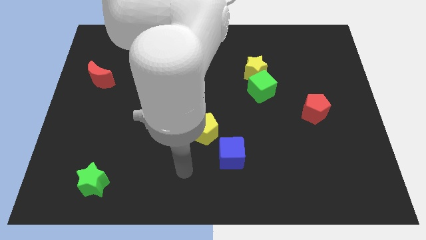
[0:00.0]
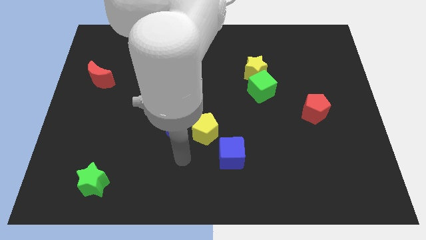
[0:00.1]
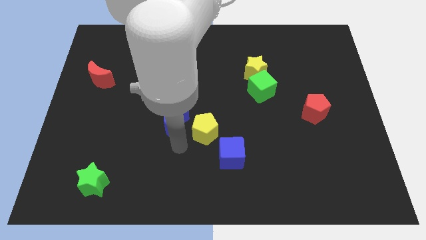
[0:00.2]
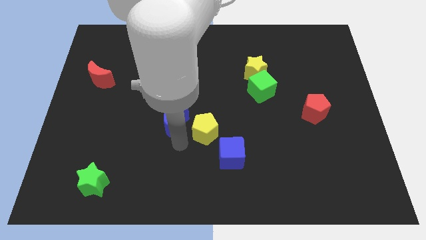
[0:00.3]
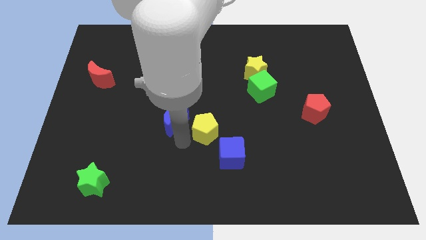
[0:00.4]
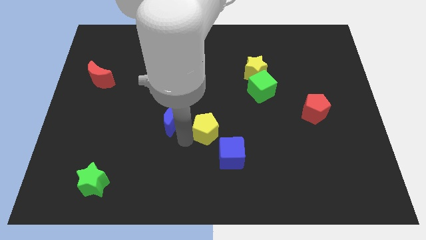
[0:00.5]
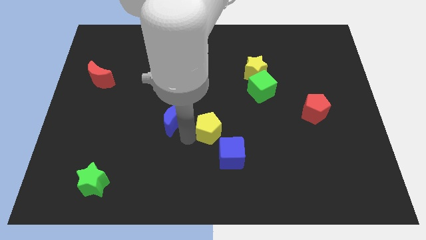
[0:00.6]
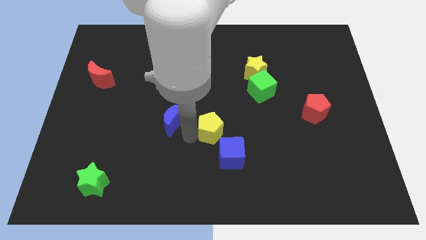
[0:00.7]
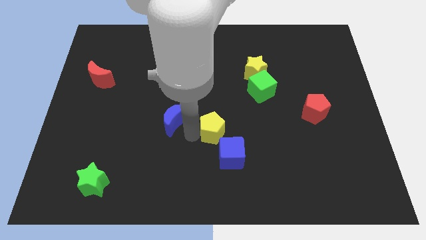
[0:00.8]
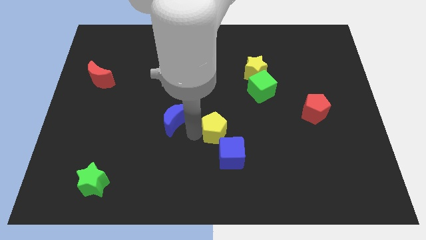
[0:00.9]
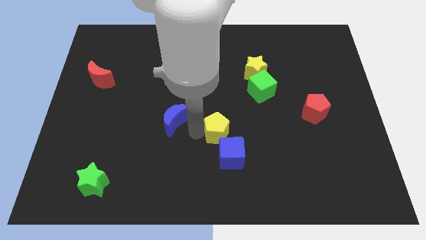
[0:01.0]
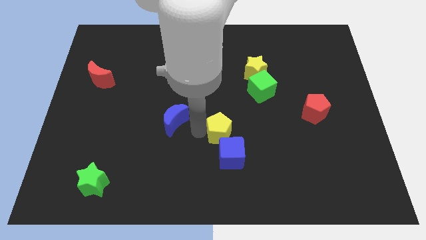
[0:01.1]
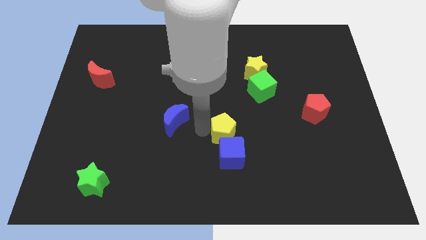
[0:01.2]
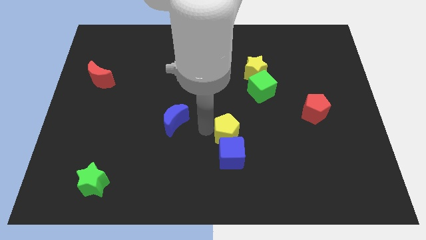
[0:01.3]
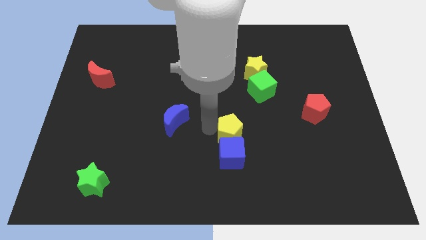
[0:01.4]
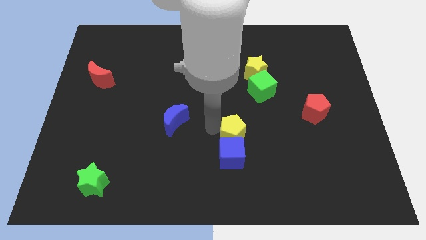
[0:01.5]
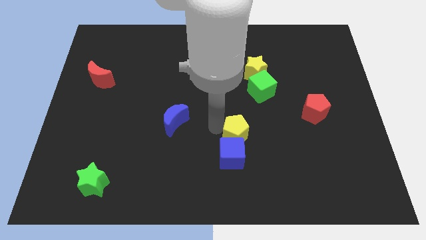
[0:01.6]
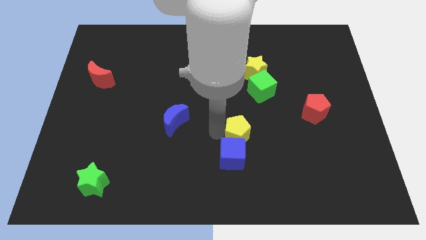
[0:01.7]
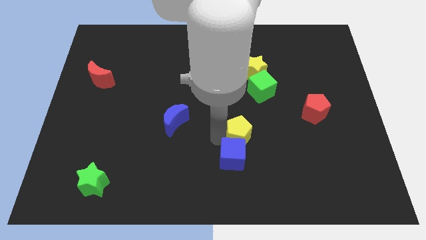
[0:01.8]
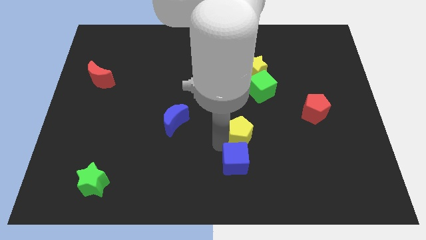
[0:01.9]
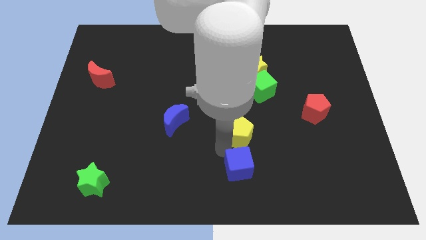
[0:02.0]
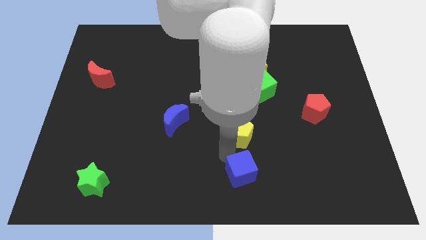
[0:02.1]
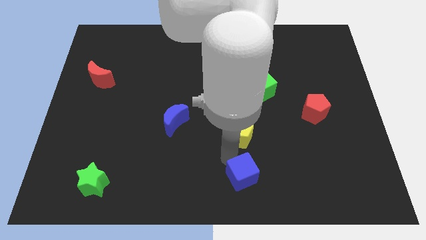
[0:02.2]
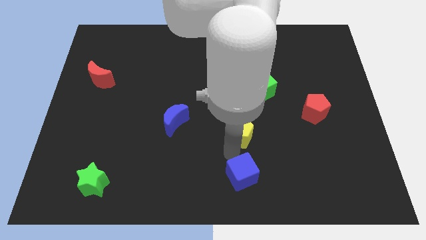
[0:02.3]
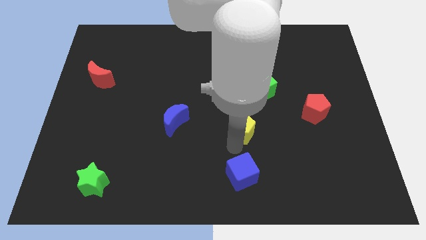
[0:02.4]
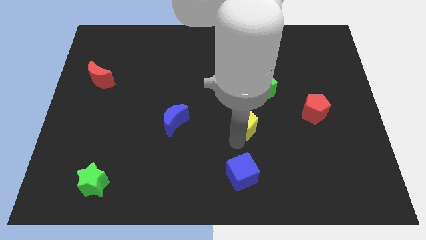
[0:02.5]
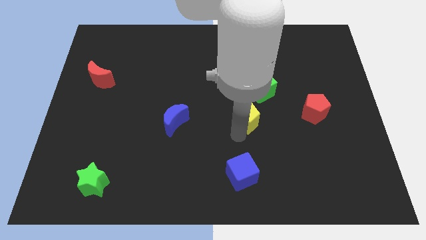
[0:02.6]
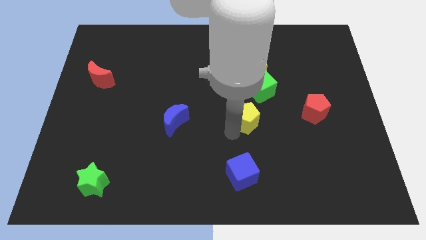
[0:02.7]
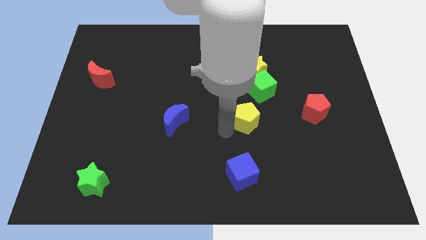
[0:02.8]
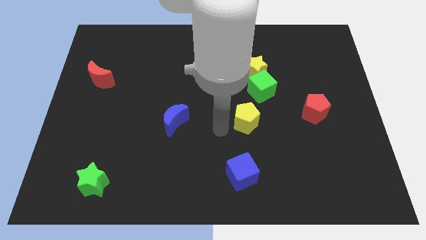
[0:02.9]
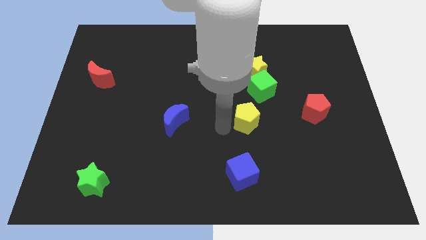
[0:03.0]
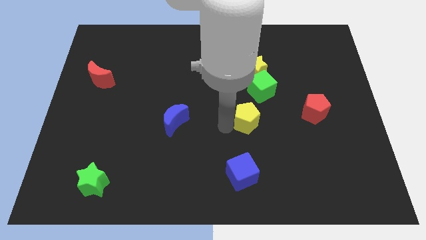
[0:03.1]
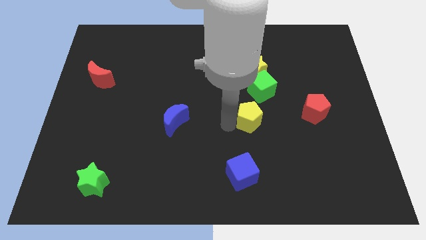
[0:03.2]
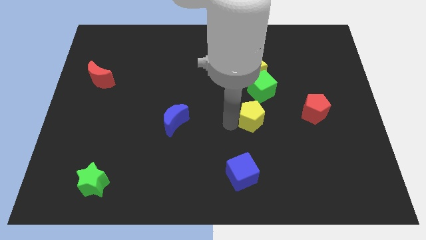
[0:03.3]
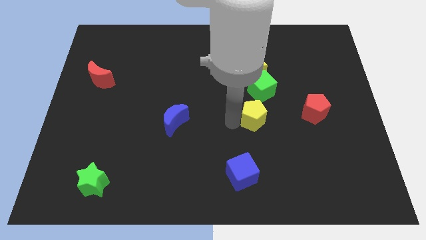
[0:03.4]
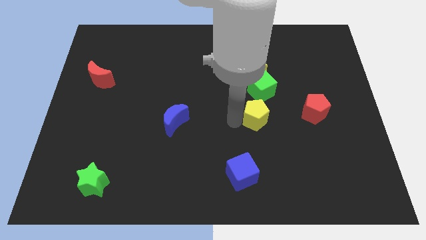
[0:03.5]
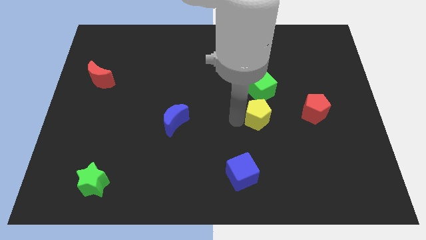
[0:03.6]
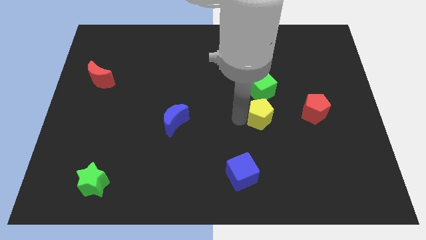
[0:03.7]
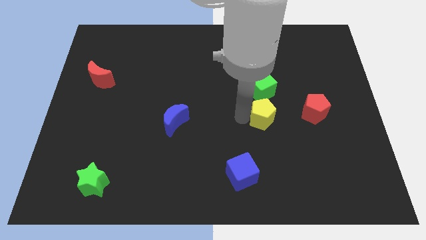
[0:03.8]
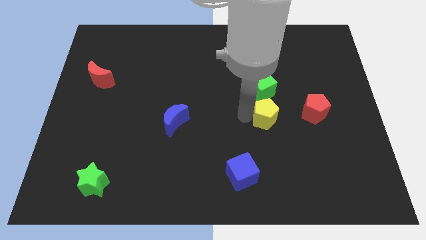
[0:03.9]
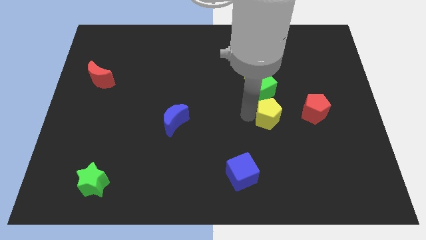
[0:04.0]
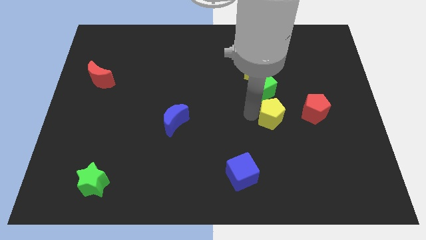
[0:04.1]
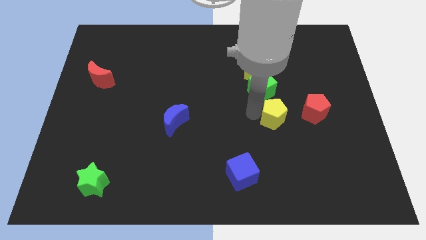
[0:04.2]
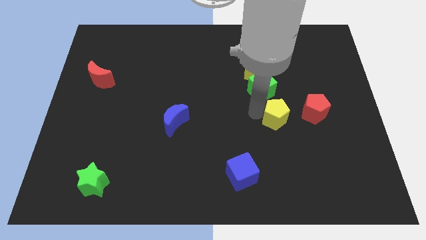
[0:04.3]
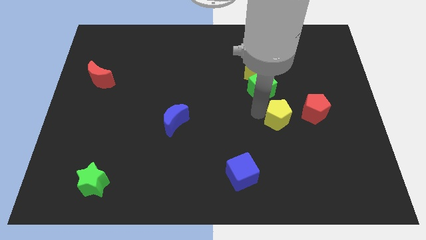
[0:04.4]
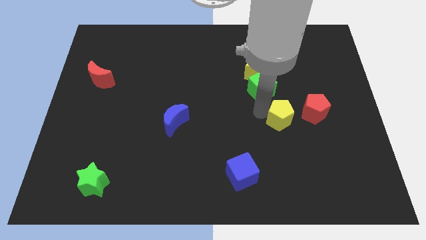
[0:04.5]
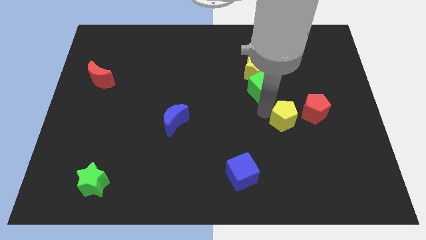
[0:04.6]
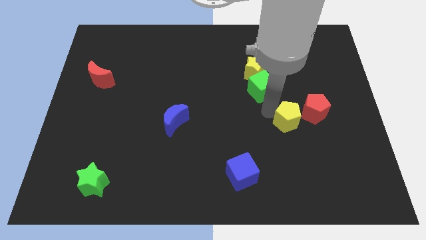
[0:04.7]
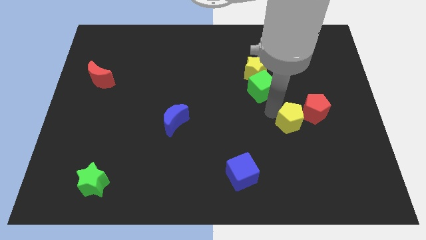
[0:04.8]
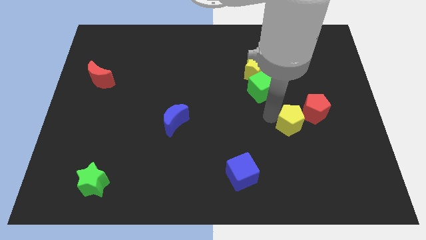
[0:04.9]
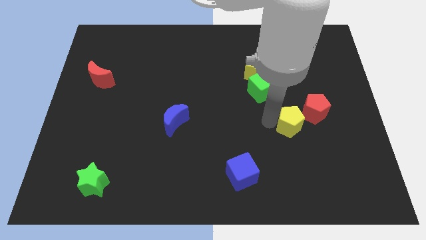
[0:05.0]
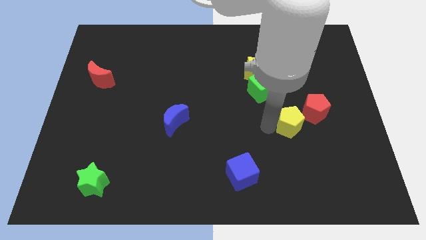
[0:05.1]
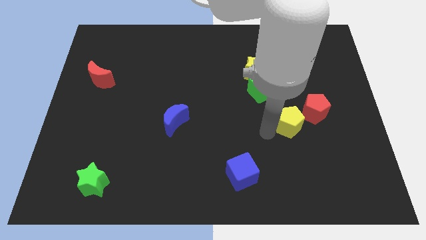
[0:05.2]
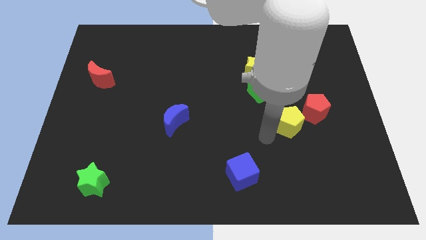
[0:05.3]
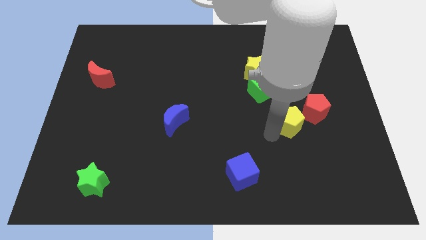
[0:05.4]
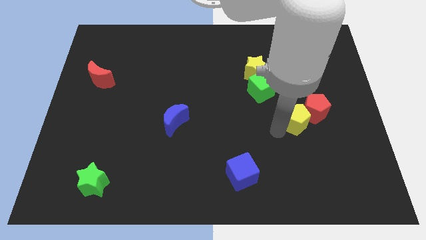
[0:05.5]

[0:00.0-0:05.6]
put the yellow pentagon to the red pentagon

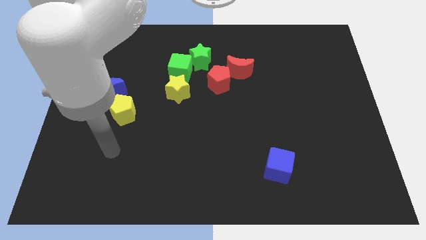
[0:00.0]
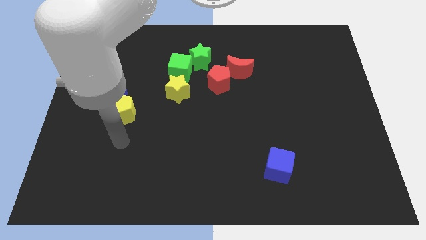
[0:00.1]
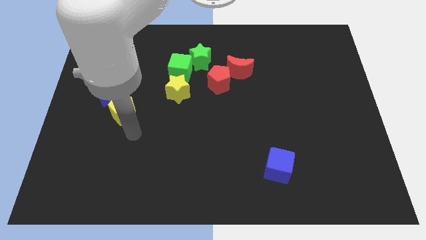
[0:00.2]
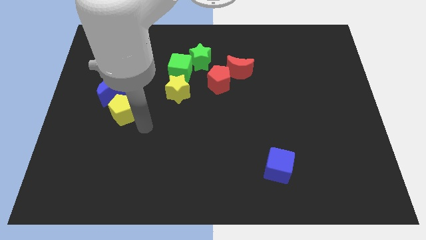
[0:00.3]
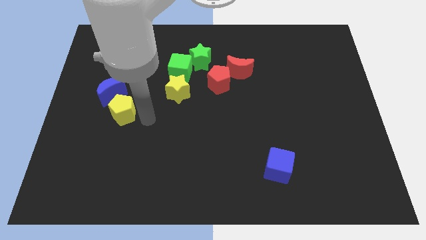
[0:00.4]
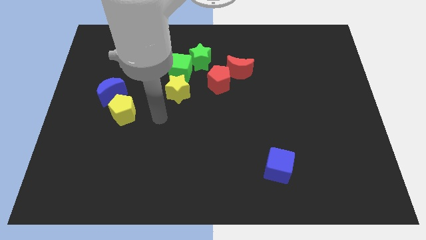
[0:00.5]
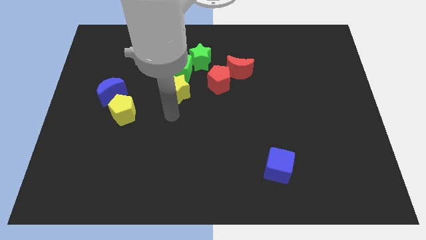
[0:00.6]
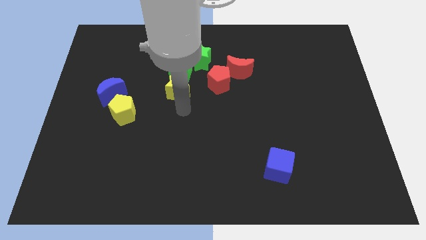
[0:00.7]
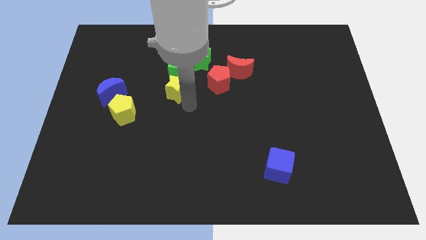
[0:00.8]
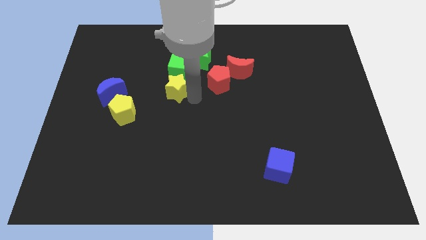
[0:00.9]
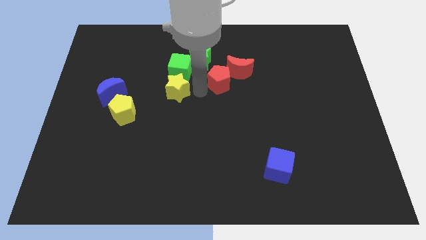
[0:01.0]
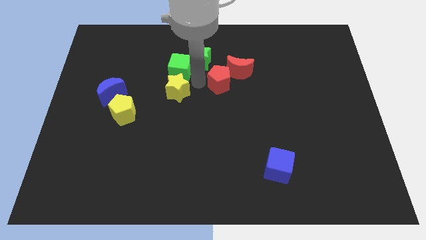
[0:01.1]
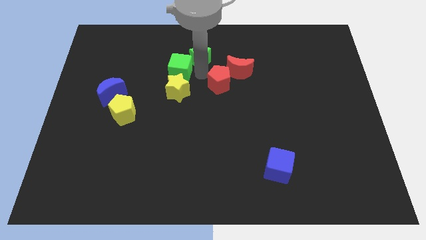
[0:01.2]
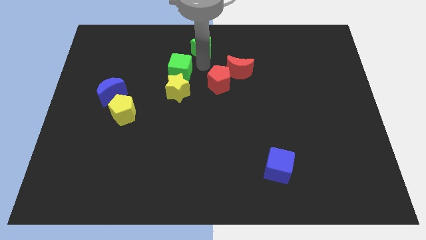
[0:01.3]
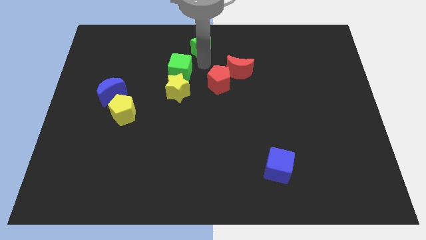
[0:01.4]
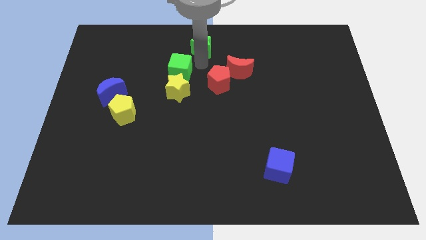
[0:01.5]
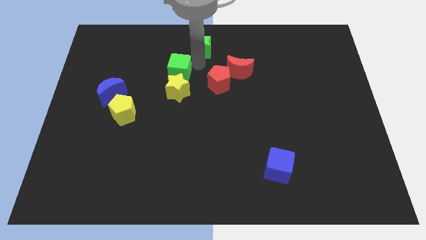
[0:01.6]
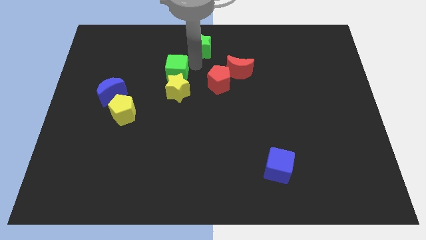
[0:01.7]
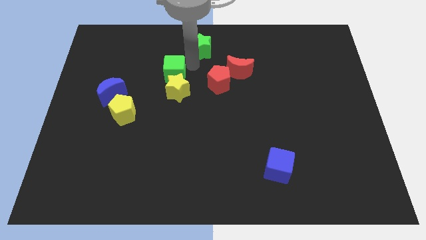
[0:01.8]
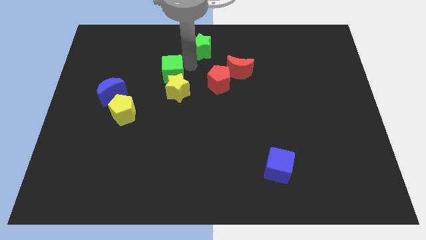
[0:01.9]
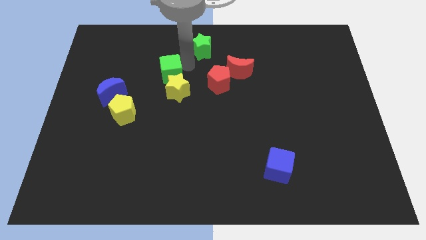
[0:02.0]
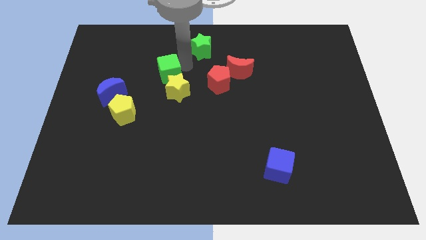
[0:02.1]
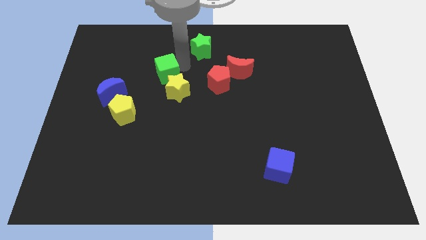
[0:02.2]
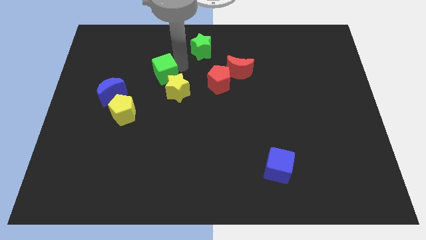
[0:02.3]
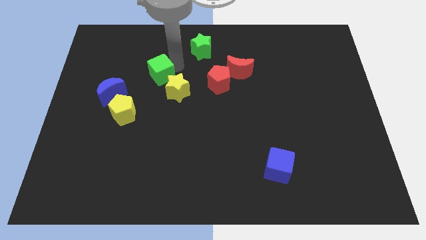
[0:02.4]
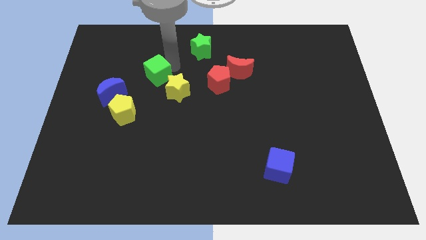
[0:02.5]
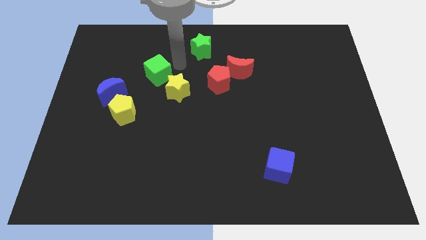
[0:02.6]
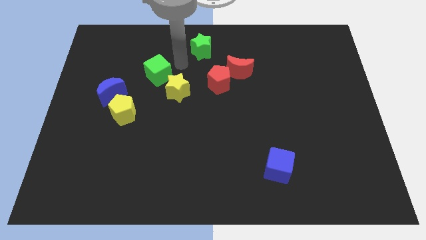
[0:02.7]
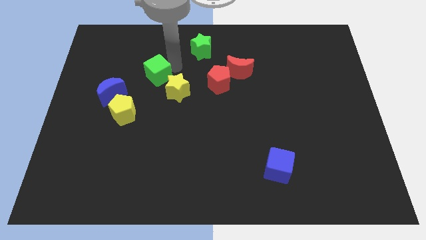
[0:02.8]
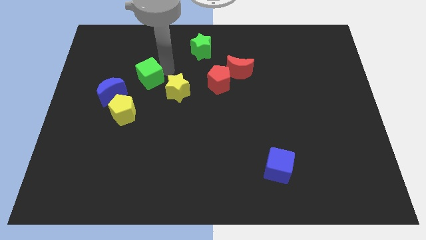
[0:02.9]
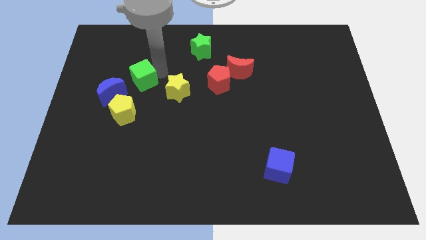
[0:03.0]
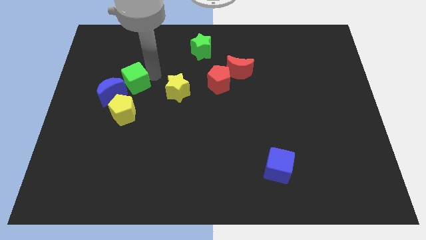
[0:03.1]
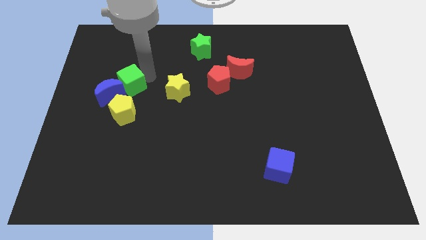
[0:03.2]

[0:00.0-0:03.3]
push the green cube close to the blue moon
